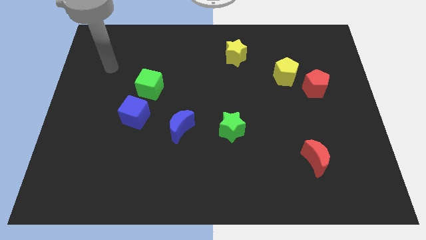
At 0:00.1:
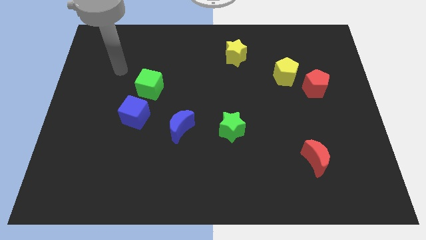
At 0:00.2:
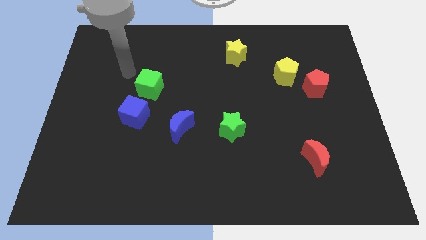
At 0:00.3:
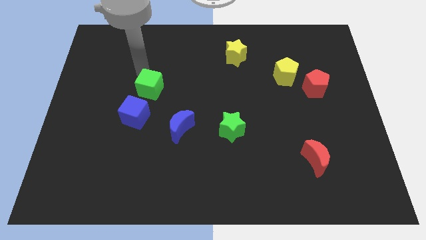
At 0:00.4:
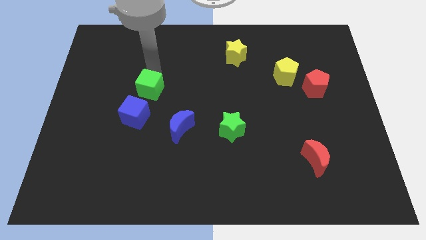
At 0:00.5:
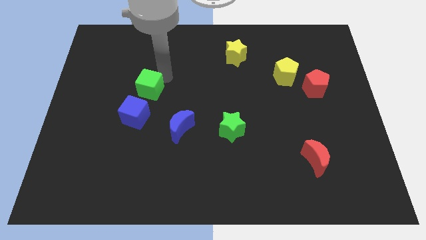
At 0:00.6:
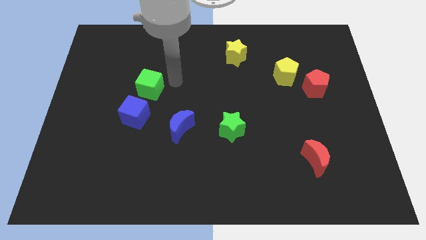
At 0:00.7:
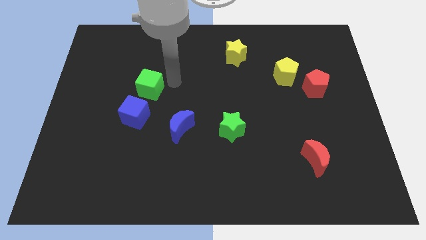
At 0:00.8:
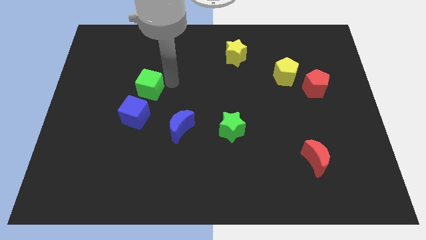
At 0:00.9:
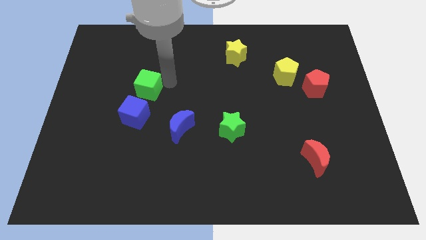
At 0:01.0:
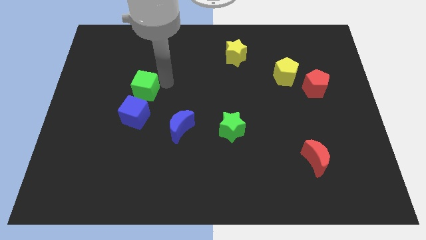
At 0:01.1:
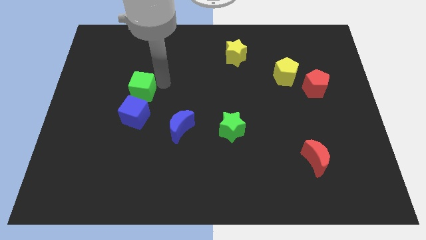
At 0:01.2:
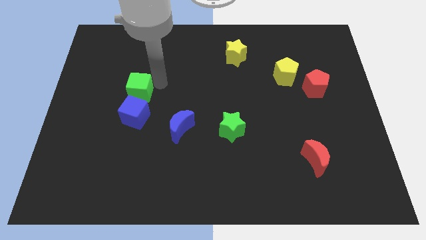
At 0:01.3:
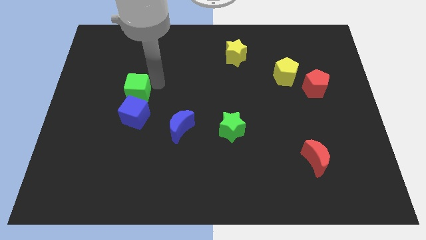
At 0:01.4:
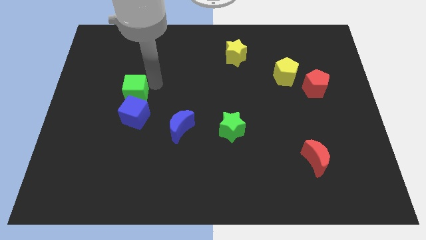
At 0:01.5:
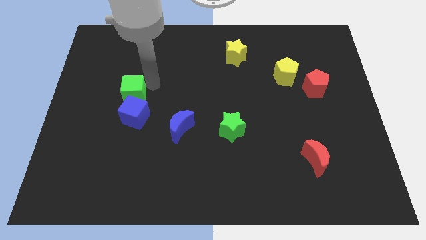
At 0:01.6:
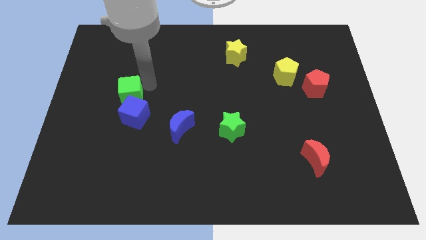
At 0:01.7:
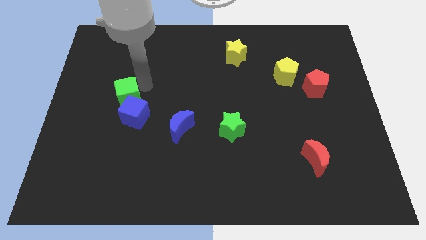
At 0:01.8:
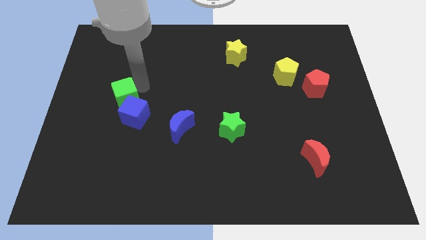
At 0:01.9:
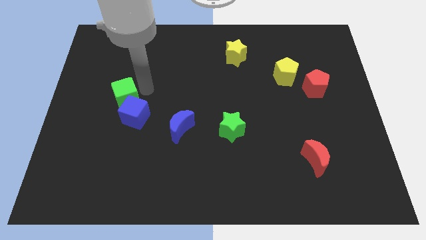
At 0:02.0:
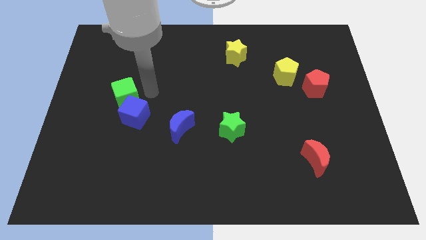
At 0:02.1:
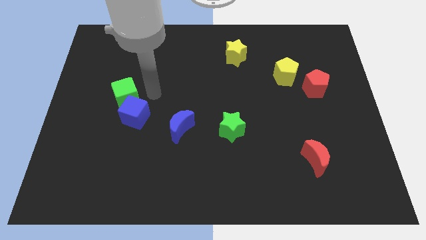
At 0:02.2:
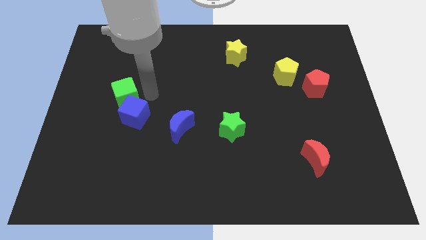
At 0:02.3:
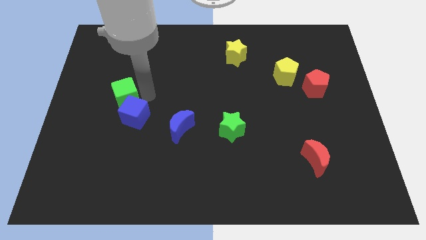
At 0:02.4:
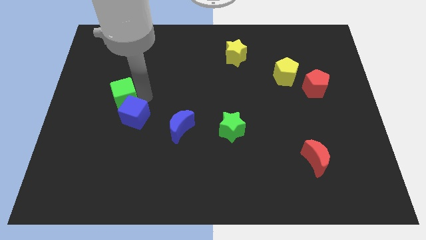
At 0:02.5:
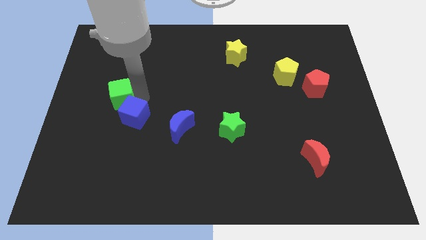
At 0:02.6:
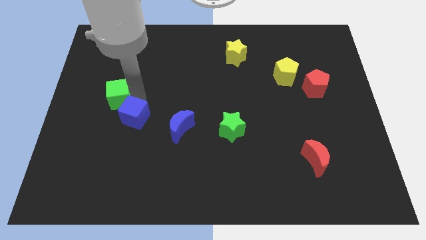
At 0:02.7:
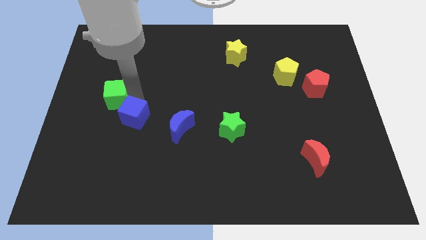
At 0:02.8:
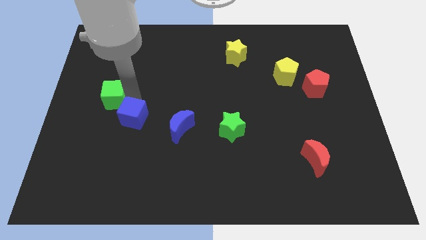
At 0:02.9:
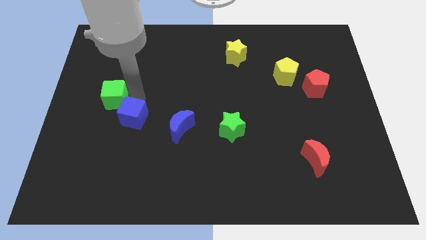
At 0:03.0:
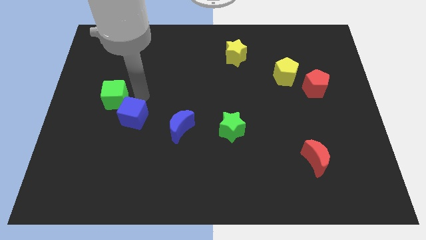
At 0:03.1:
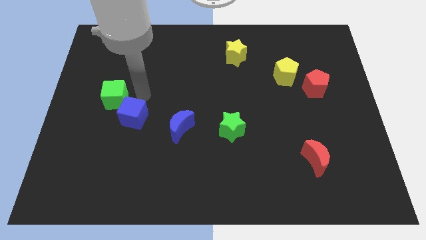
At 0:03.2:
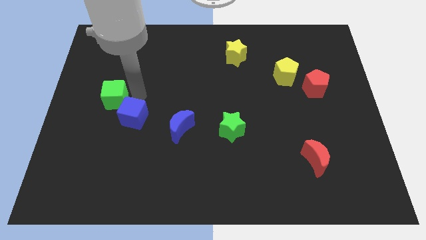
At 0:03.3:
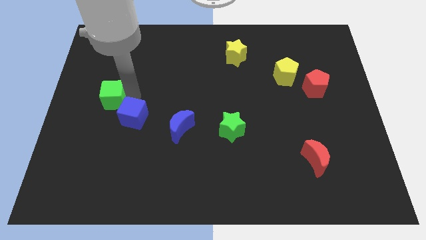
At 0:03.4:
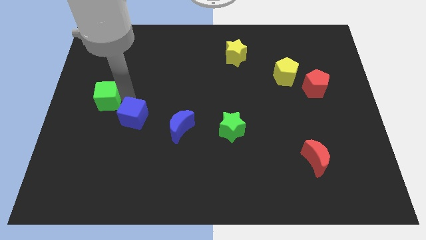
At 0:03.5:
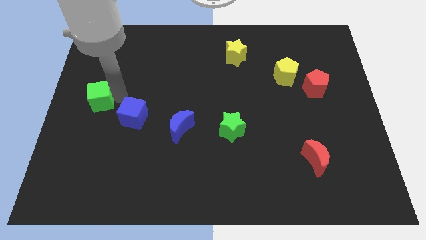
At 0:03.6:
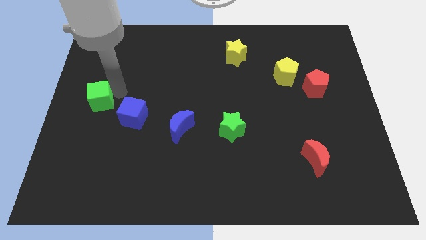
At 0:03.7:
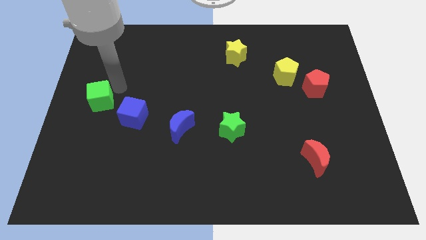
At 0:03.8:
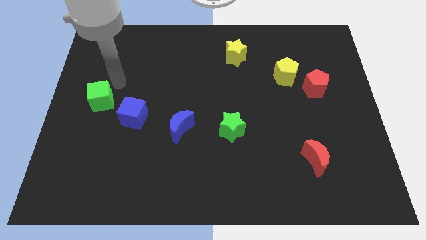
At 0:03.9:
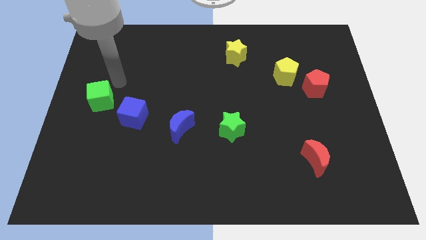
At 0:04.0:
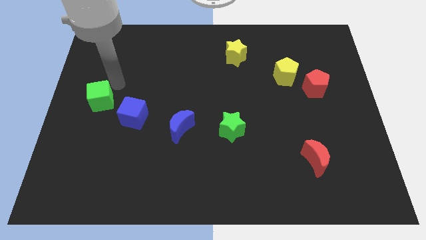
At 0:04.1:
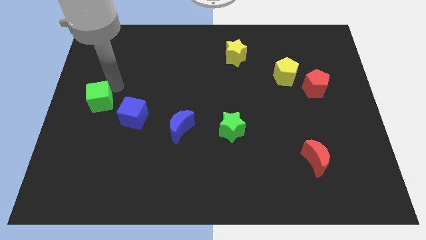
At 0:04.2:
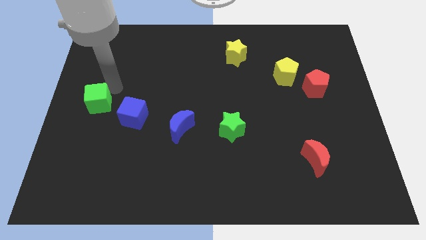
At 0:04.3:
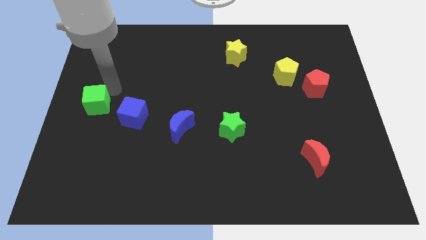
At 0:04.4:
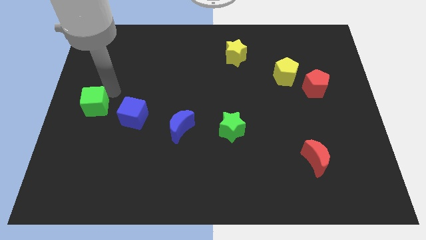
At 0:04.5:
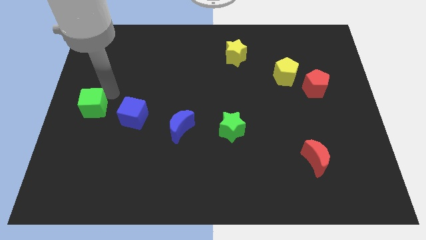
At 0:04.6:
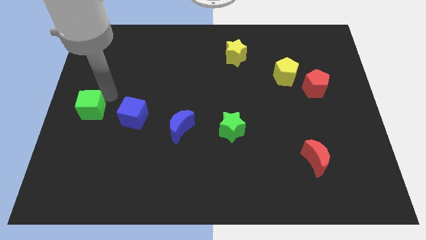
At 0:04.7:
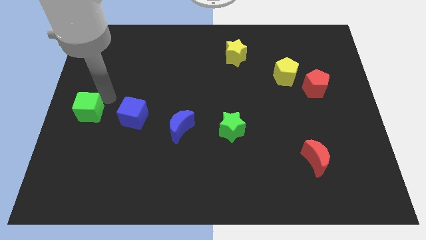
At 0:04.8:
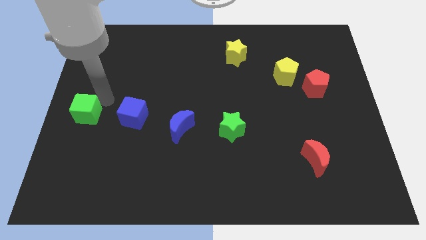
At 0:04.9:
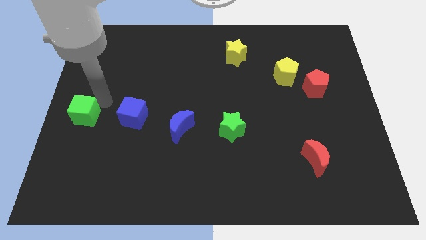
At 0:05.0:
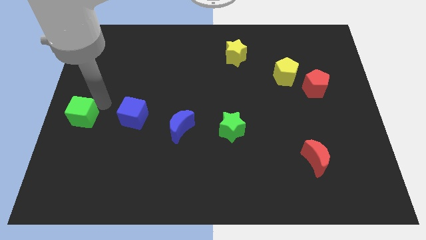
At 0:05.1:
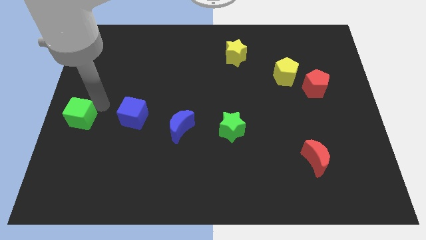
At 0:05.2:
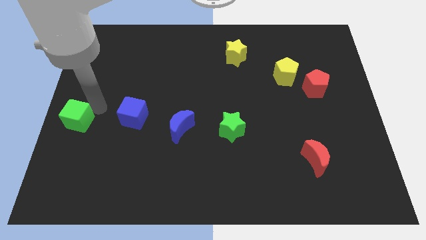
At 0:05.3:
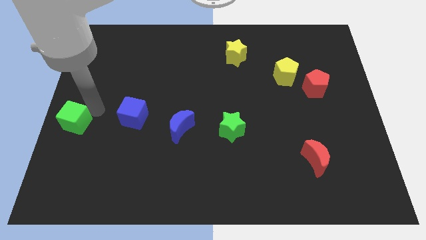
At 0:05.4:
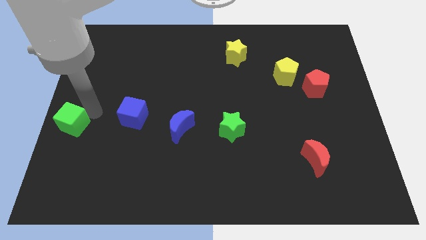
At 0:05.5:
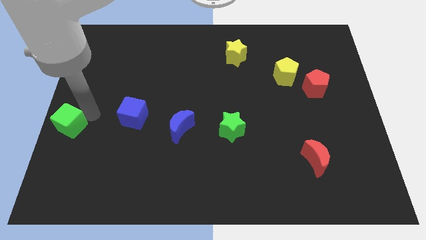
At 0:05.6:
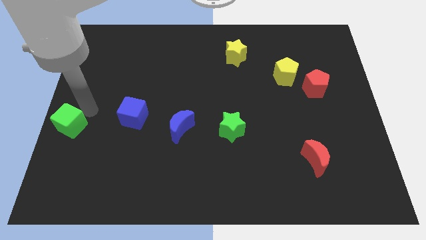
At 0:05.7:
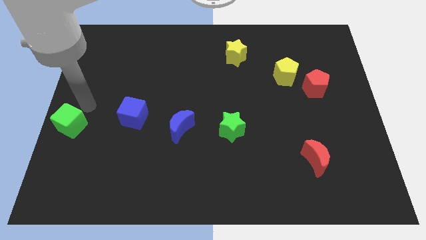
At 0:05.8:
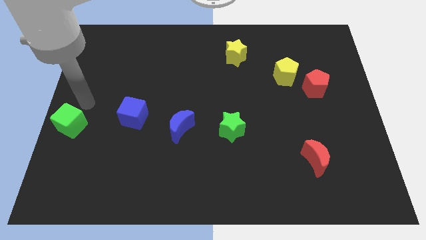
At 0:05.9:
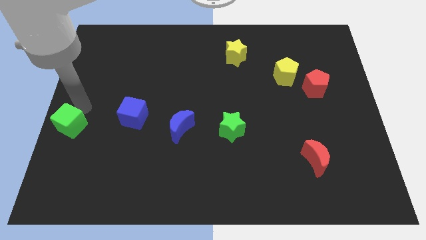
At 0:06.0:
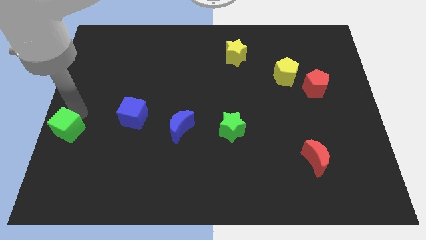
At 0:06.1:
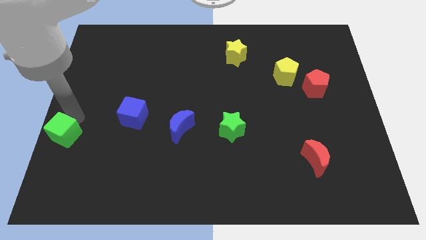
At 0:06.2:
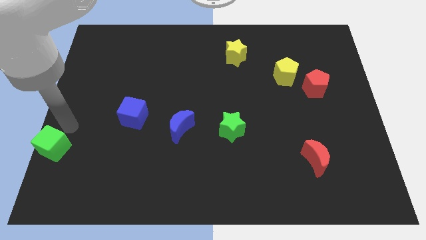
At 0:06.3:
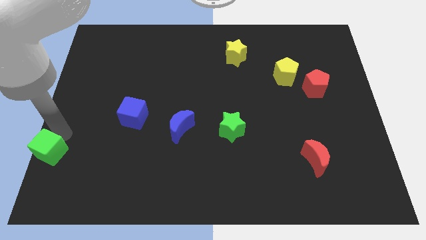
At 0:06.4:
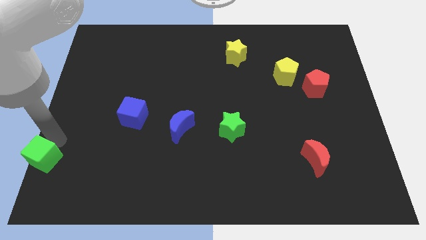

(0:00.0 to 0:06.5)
slide the green cube to the bottom left of the board
